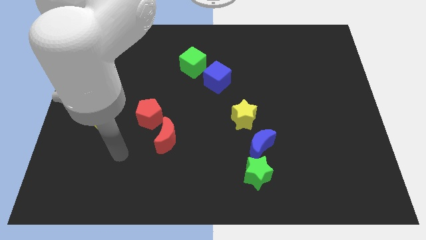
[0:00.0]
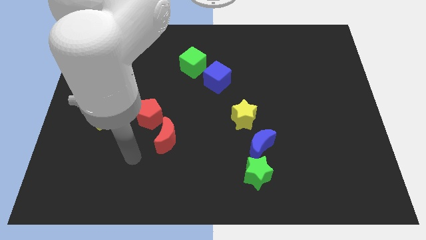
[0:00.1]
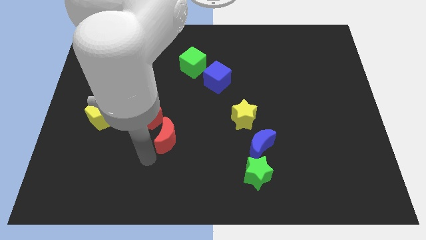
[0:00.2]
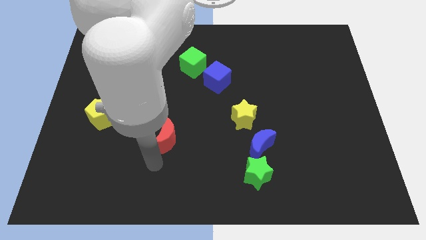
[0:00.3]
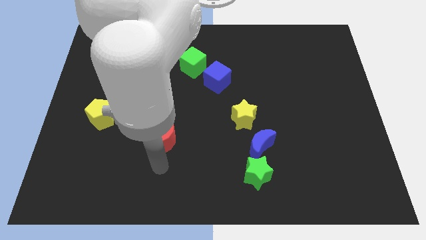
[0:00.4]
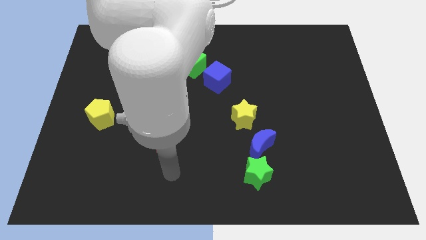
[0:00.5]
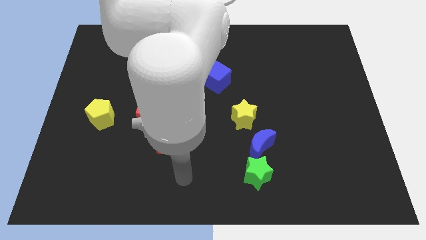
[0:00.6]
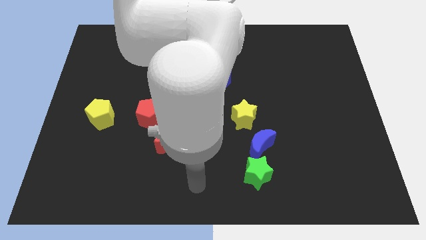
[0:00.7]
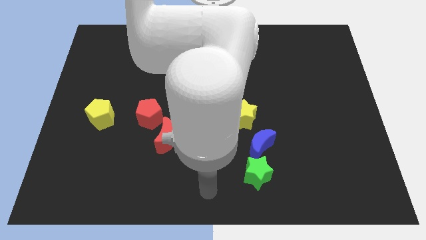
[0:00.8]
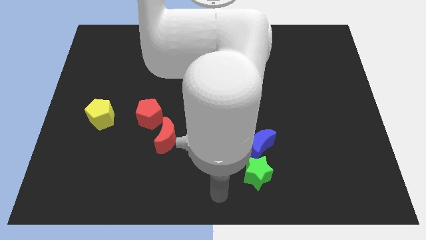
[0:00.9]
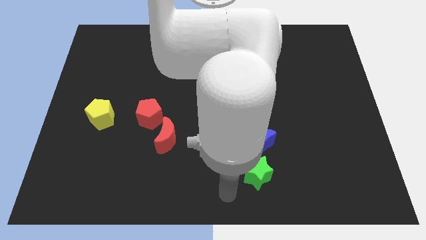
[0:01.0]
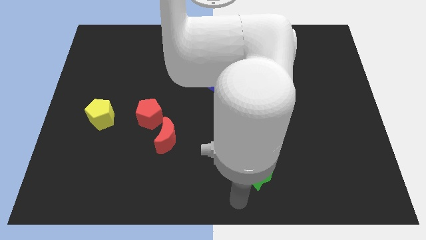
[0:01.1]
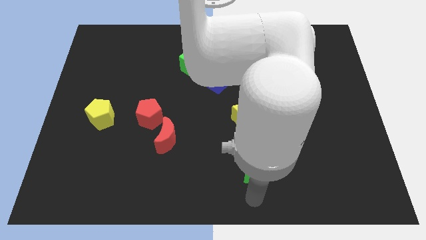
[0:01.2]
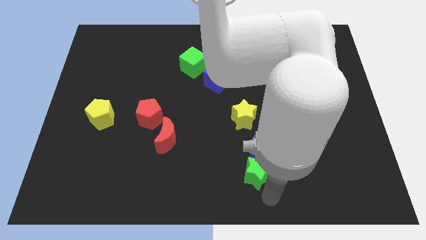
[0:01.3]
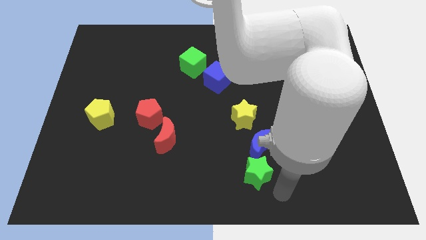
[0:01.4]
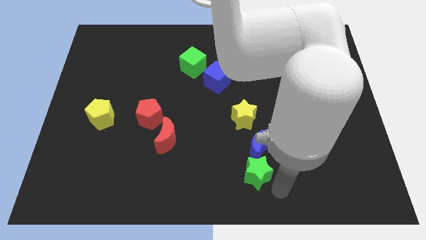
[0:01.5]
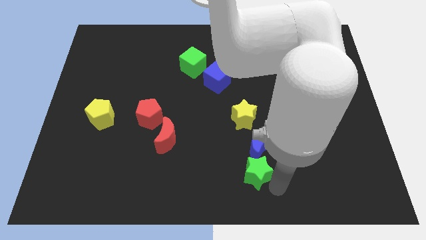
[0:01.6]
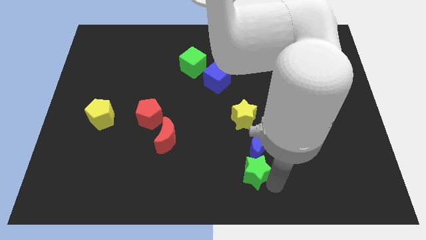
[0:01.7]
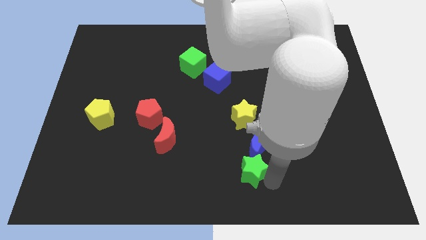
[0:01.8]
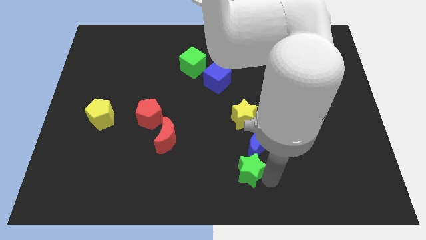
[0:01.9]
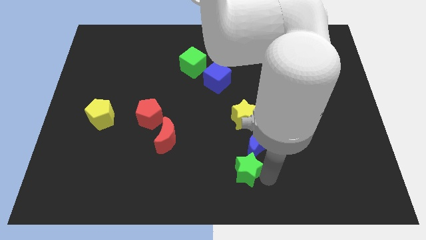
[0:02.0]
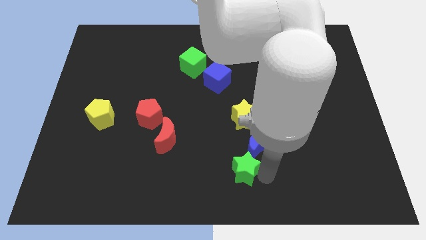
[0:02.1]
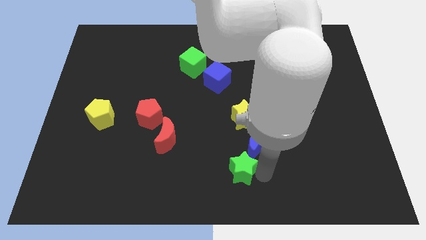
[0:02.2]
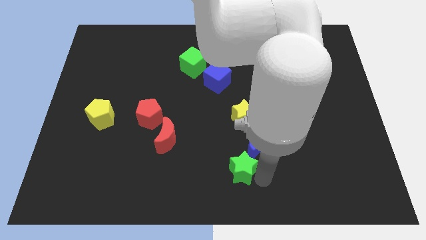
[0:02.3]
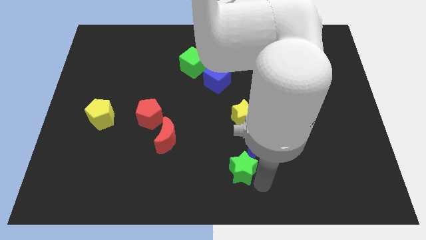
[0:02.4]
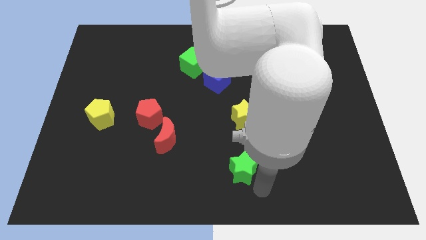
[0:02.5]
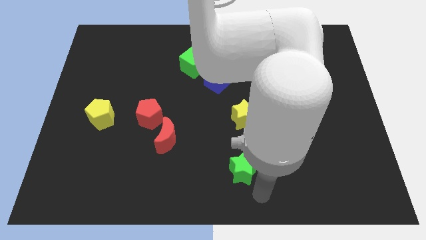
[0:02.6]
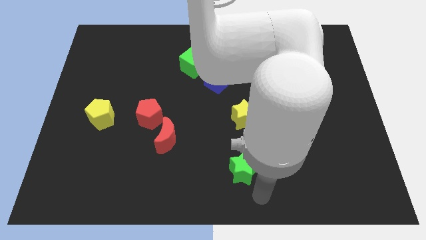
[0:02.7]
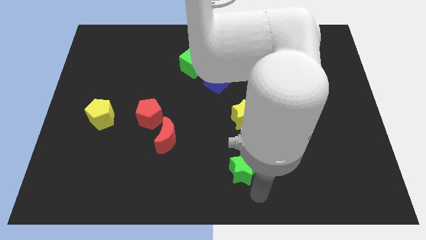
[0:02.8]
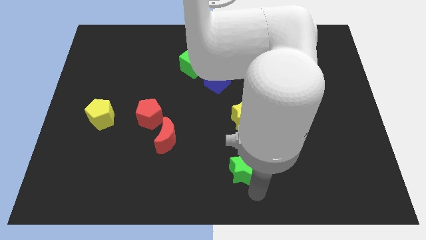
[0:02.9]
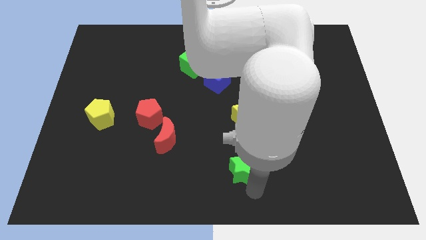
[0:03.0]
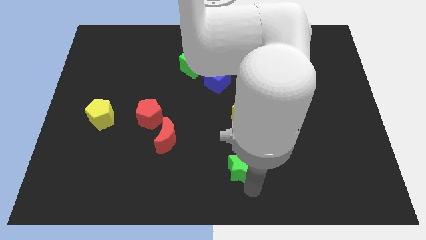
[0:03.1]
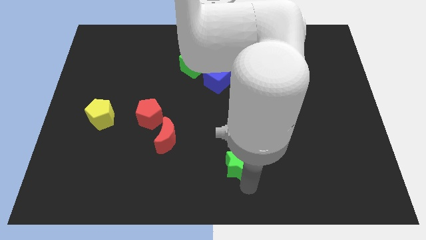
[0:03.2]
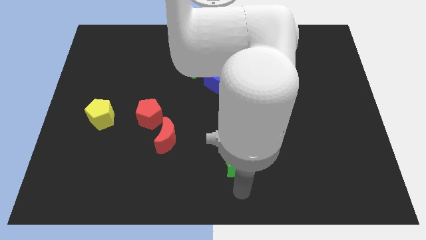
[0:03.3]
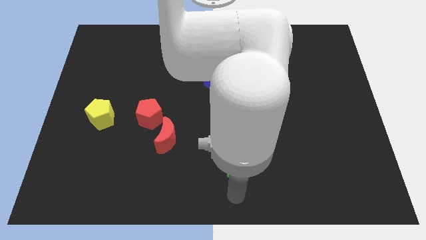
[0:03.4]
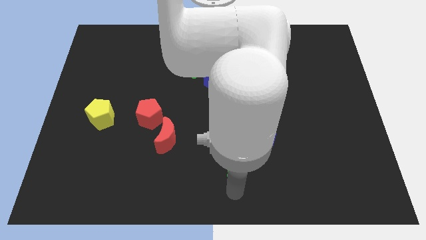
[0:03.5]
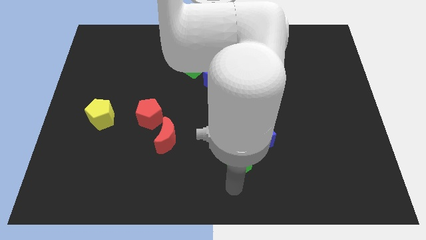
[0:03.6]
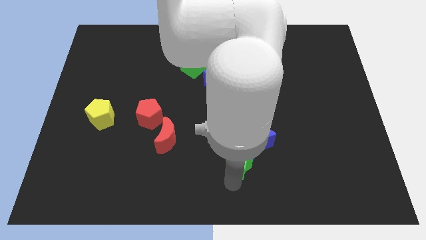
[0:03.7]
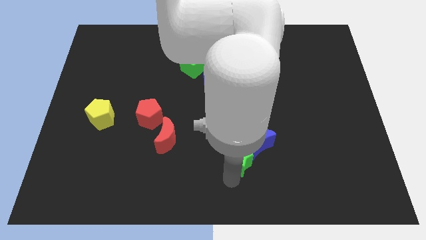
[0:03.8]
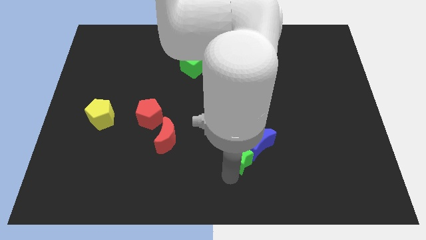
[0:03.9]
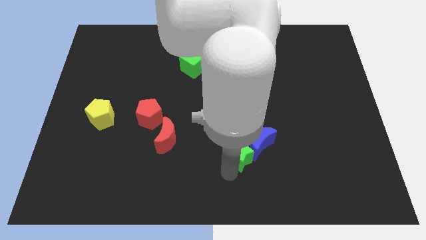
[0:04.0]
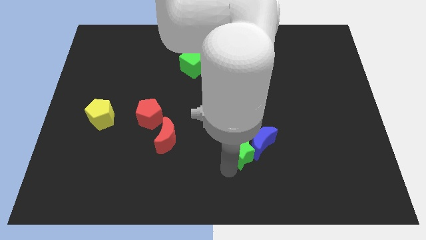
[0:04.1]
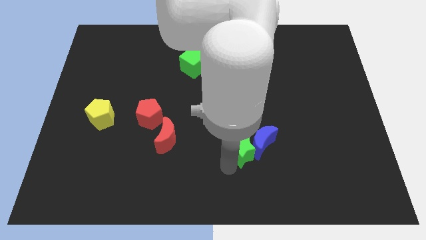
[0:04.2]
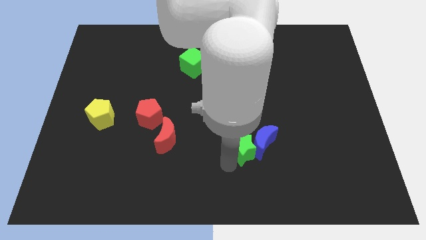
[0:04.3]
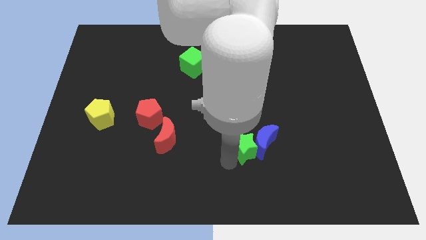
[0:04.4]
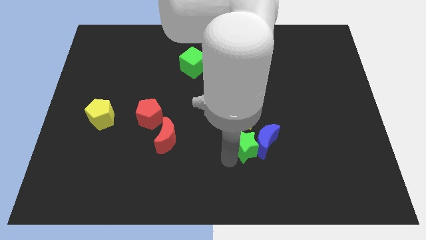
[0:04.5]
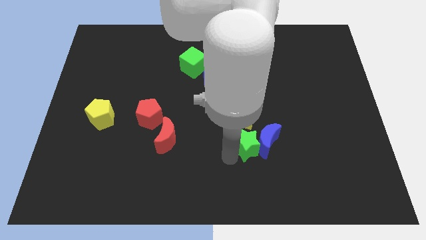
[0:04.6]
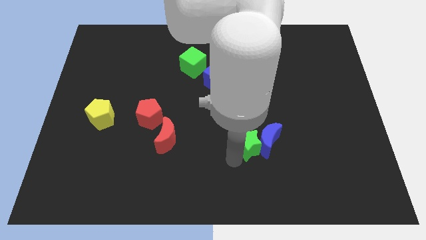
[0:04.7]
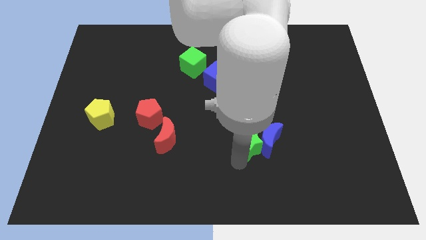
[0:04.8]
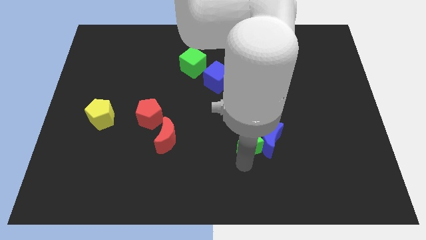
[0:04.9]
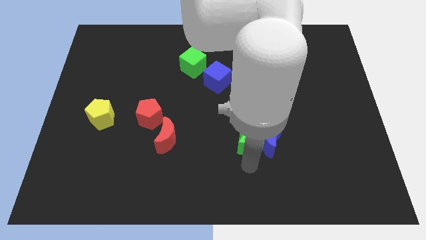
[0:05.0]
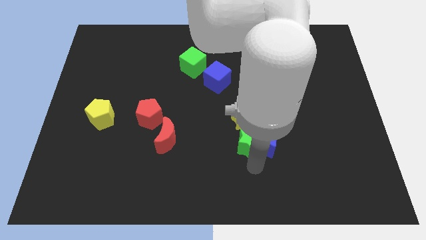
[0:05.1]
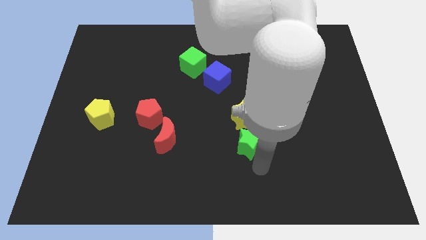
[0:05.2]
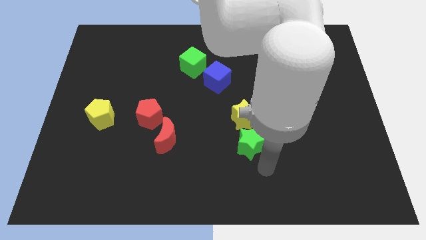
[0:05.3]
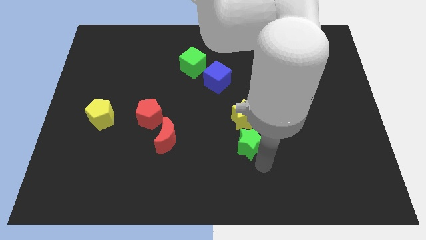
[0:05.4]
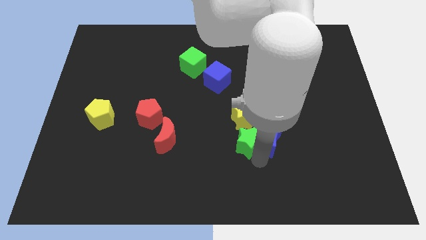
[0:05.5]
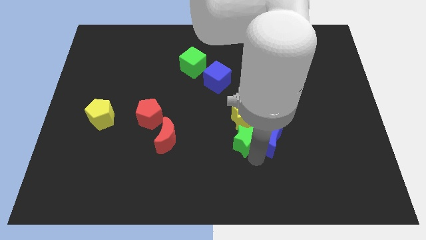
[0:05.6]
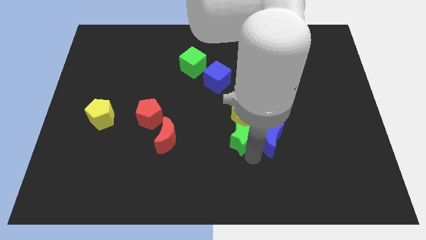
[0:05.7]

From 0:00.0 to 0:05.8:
move the green star towards the yellow star

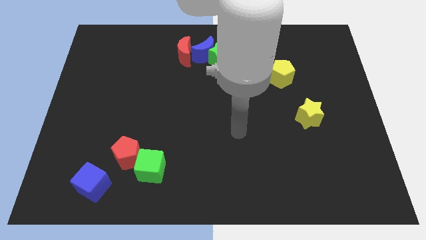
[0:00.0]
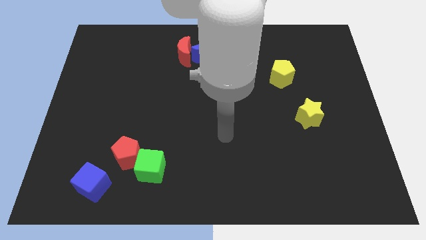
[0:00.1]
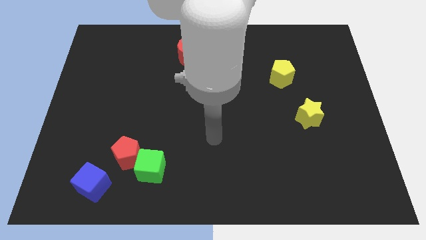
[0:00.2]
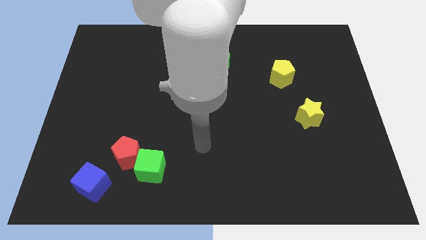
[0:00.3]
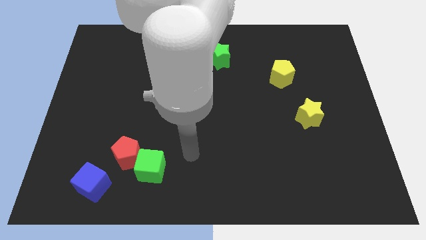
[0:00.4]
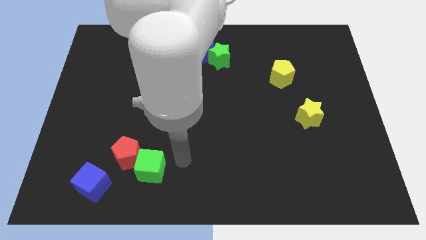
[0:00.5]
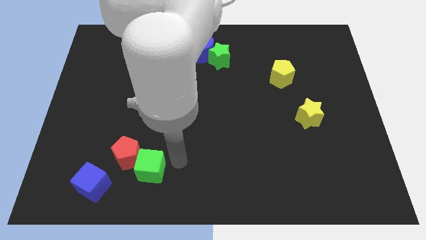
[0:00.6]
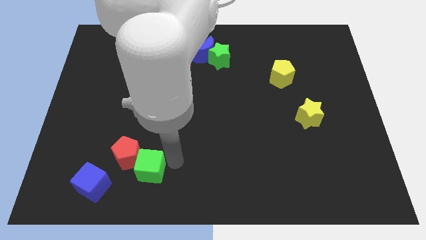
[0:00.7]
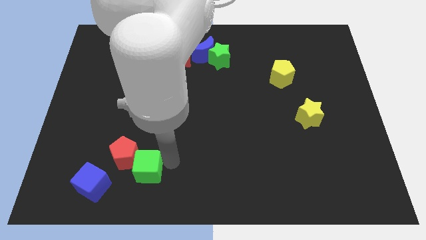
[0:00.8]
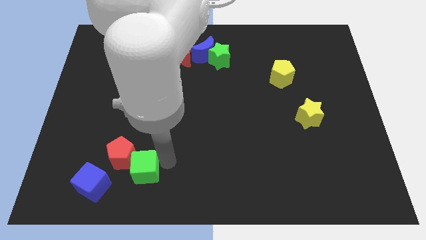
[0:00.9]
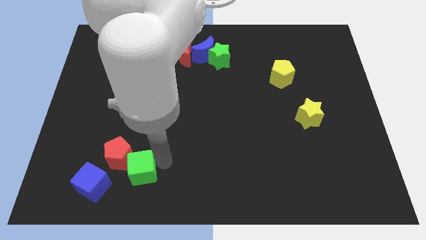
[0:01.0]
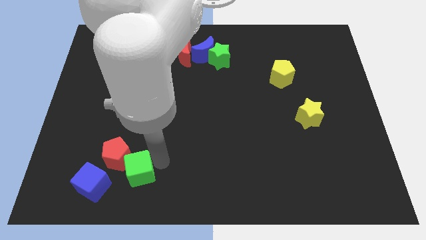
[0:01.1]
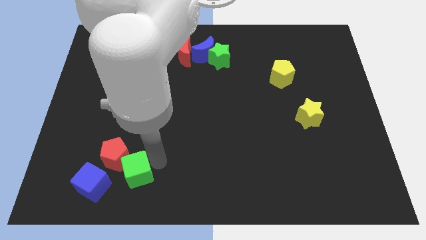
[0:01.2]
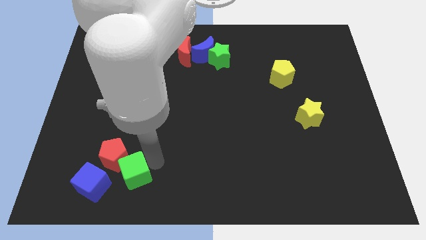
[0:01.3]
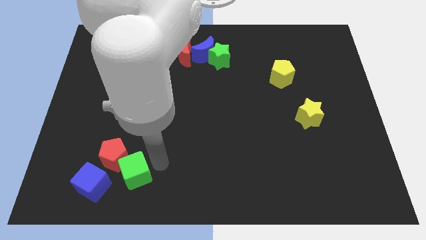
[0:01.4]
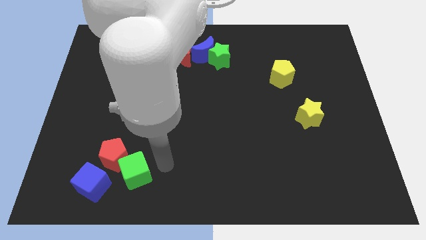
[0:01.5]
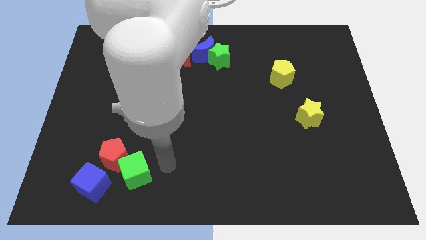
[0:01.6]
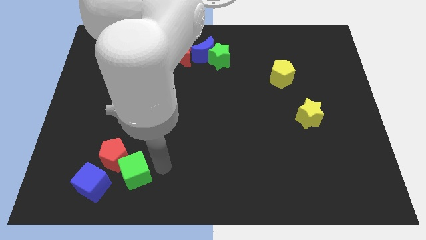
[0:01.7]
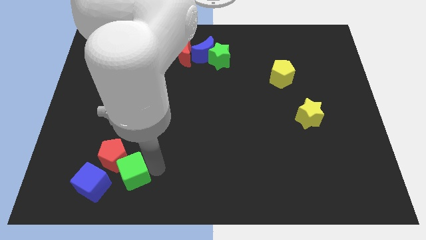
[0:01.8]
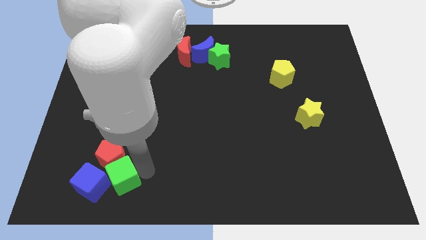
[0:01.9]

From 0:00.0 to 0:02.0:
move the green cube towards the blue cube
